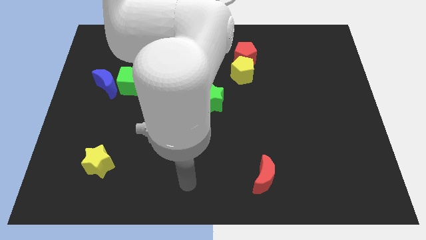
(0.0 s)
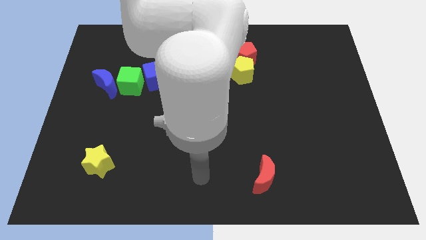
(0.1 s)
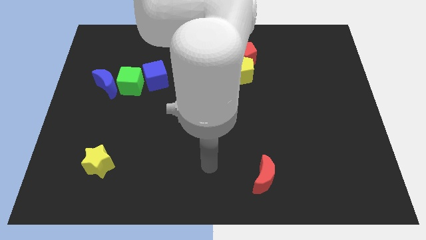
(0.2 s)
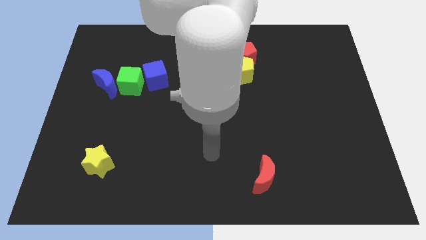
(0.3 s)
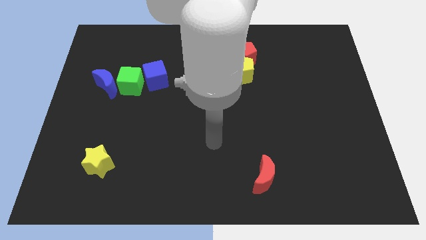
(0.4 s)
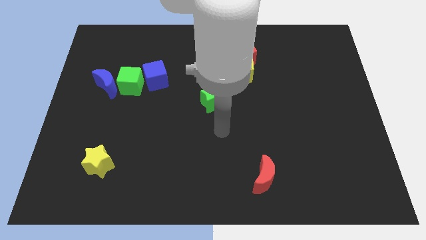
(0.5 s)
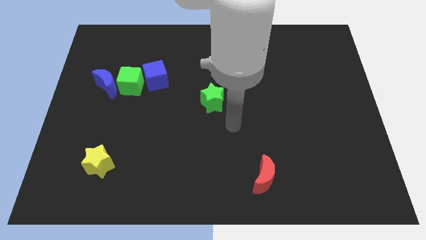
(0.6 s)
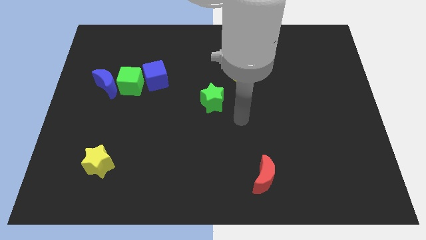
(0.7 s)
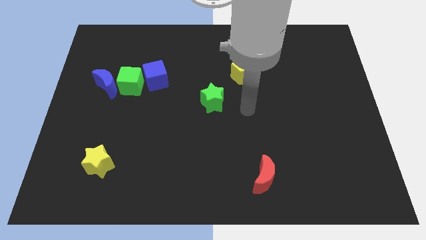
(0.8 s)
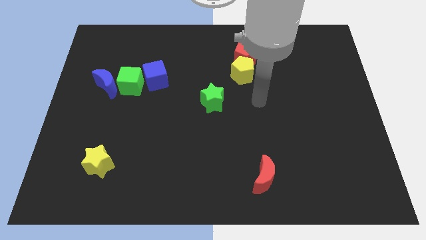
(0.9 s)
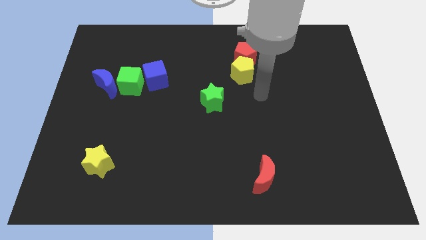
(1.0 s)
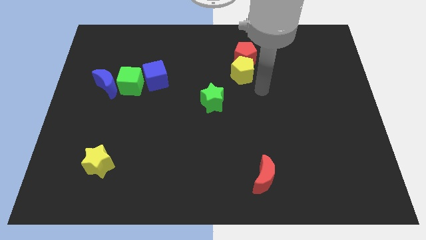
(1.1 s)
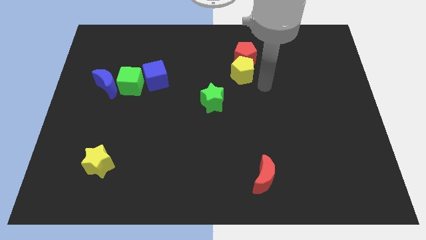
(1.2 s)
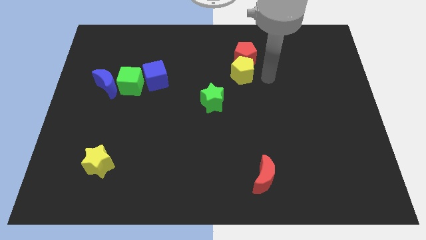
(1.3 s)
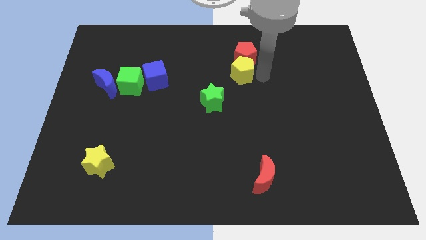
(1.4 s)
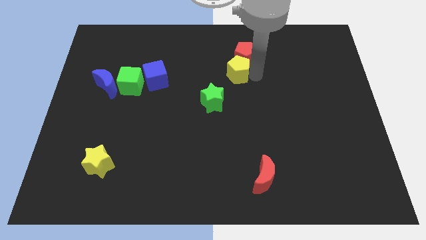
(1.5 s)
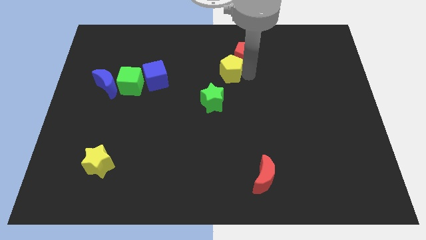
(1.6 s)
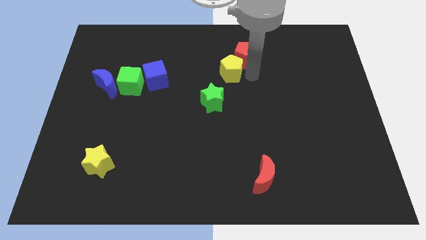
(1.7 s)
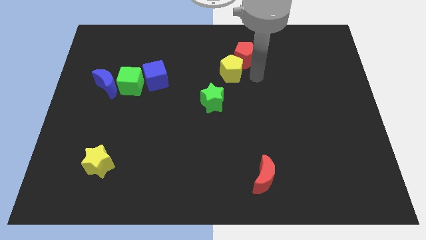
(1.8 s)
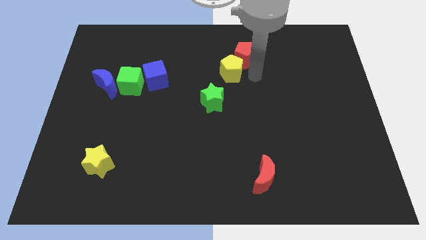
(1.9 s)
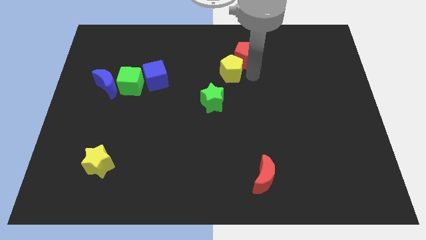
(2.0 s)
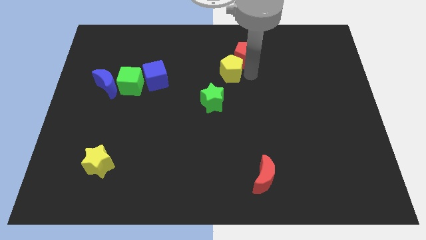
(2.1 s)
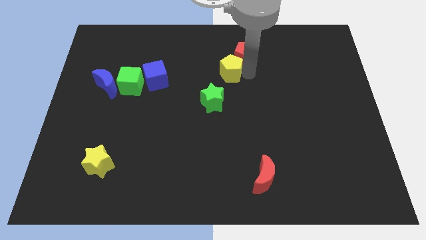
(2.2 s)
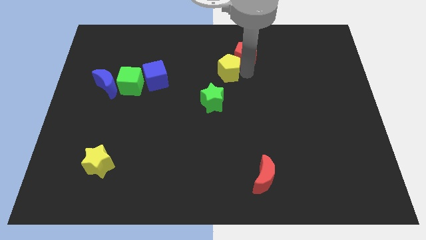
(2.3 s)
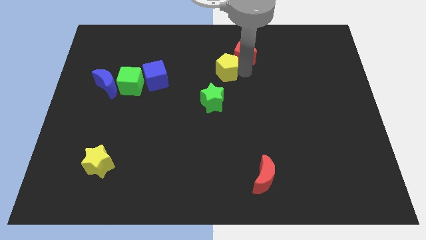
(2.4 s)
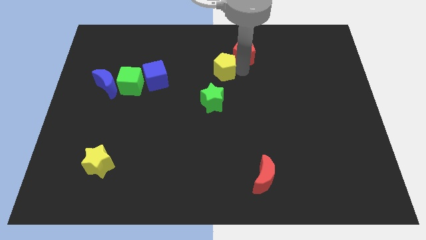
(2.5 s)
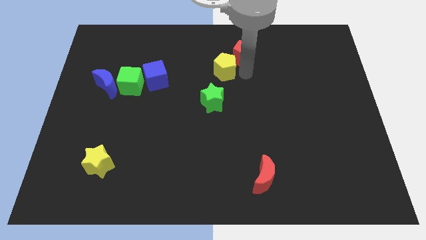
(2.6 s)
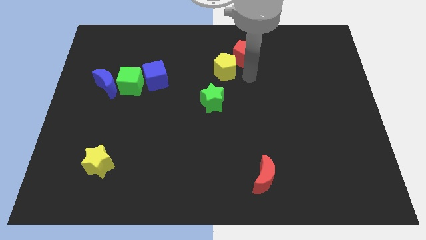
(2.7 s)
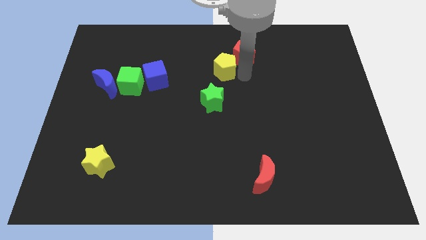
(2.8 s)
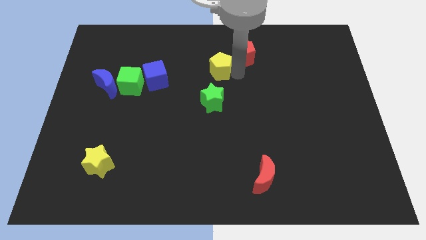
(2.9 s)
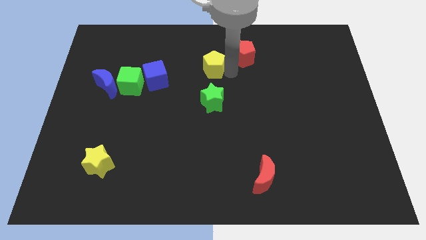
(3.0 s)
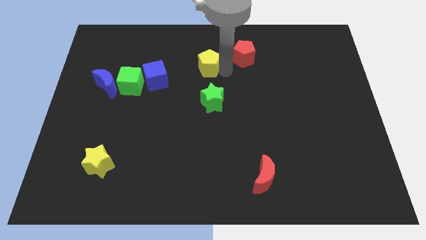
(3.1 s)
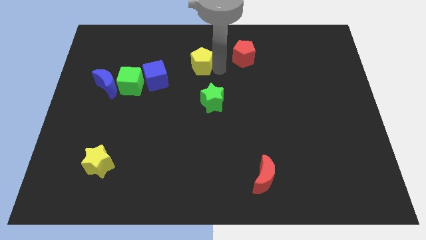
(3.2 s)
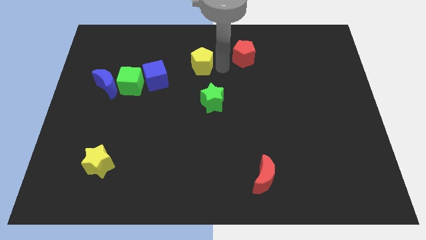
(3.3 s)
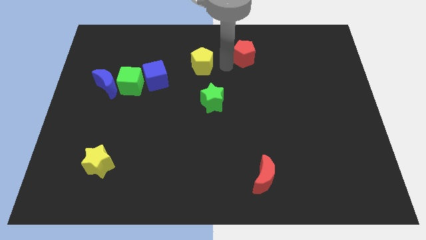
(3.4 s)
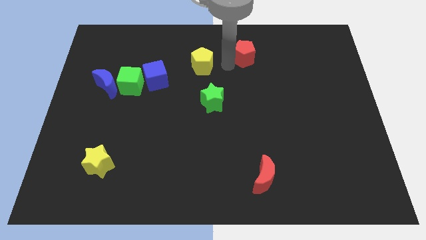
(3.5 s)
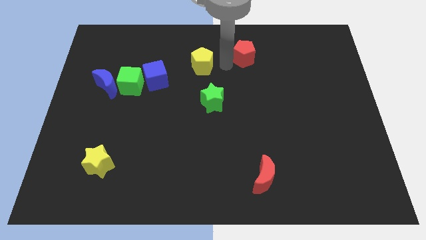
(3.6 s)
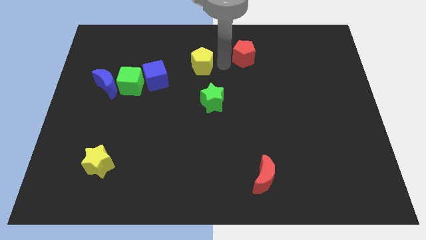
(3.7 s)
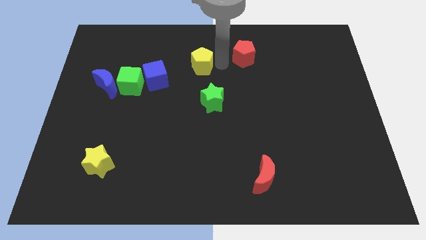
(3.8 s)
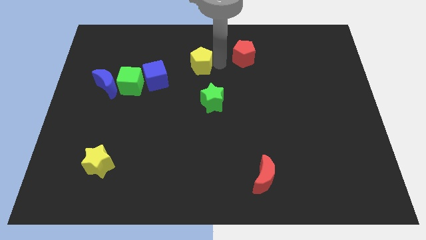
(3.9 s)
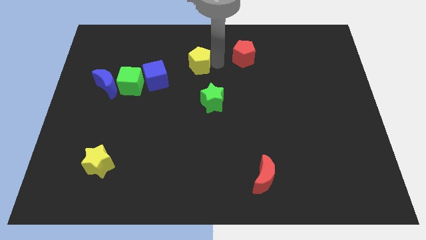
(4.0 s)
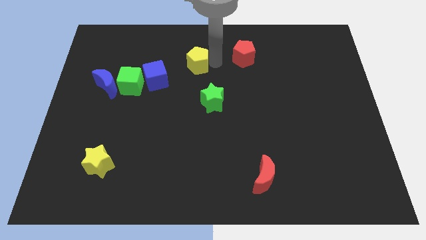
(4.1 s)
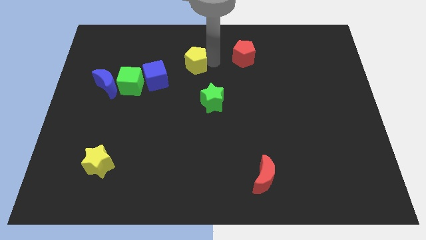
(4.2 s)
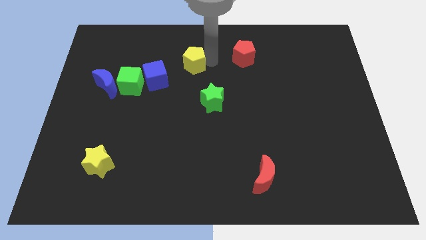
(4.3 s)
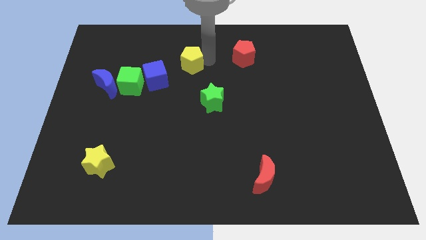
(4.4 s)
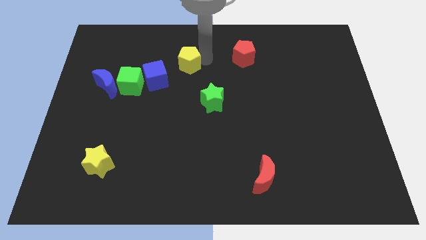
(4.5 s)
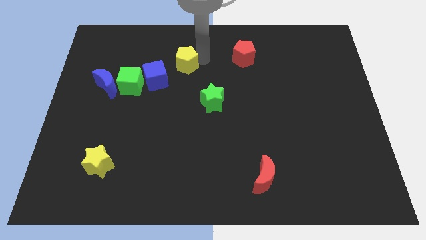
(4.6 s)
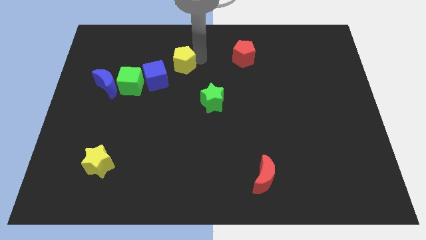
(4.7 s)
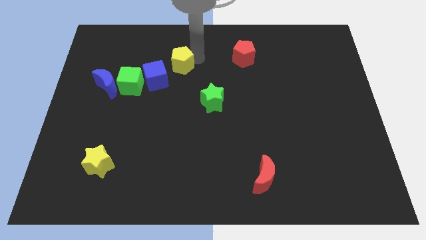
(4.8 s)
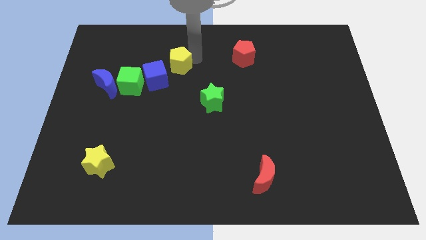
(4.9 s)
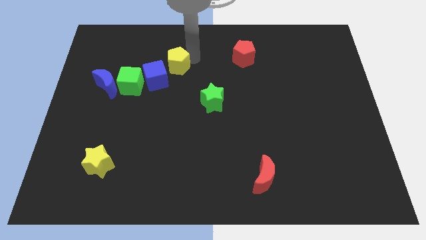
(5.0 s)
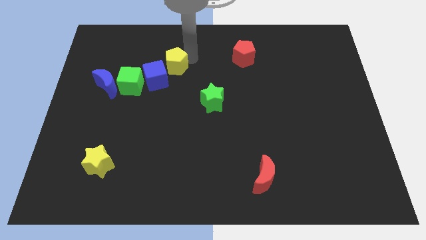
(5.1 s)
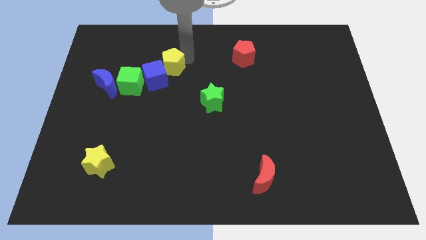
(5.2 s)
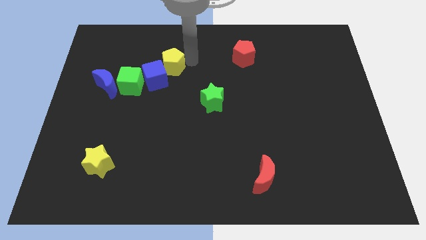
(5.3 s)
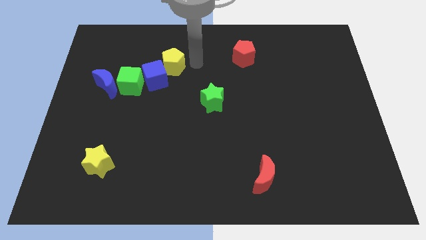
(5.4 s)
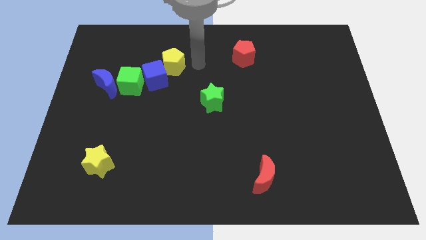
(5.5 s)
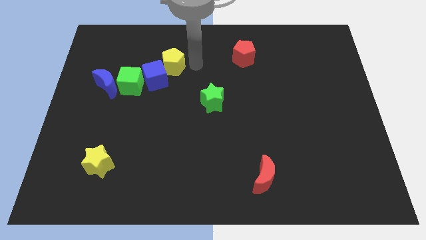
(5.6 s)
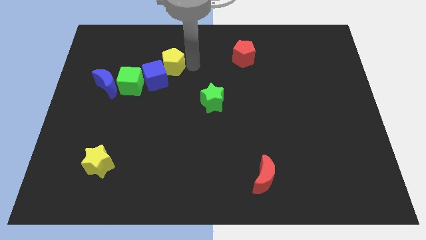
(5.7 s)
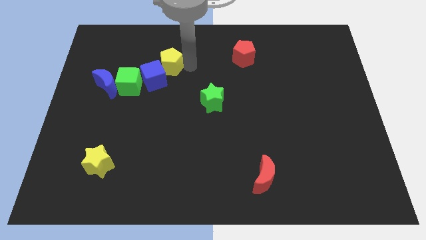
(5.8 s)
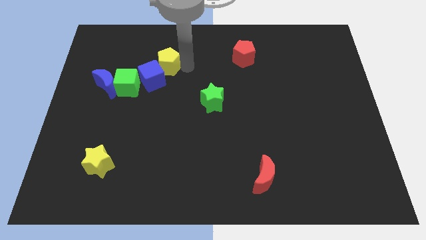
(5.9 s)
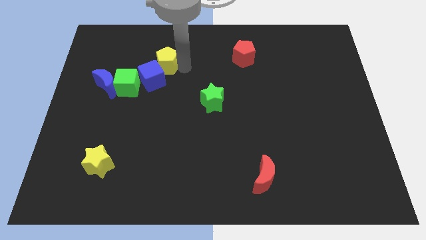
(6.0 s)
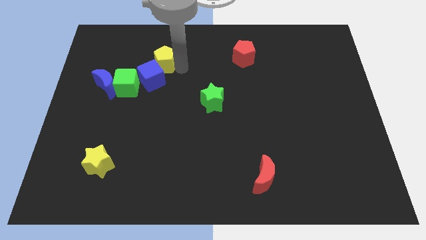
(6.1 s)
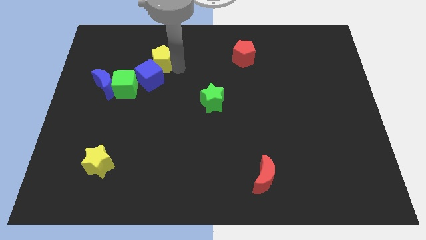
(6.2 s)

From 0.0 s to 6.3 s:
move the yellow pentagon left

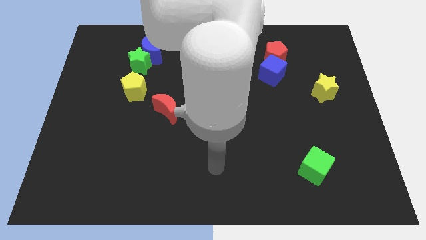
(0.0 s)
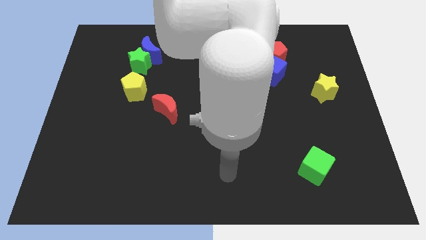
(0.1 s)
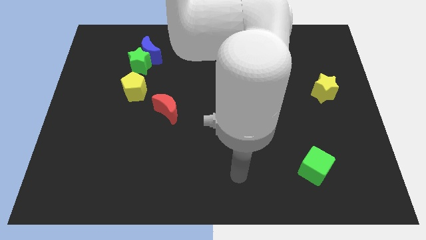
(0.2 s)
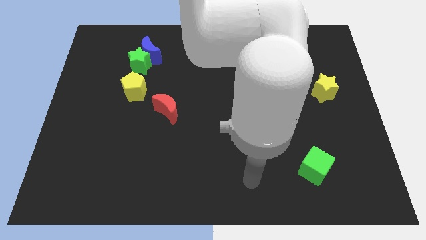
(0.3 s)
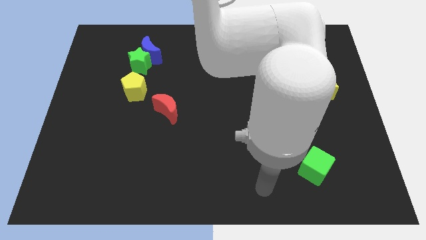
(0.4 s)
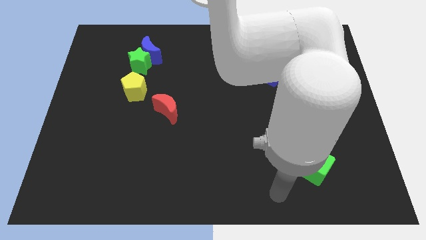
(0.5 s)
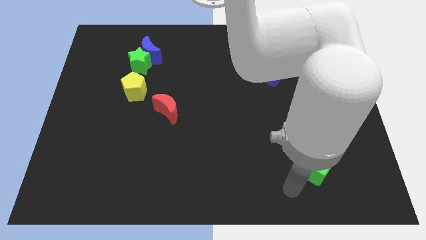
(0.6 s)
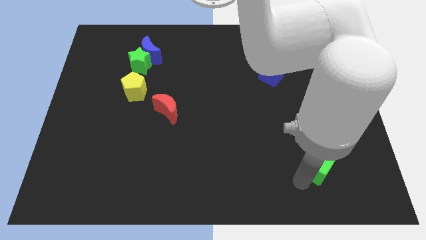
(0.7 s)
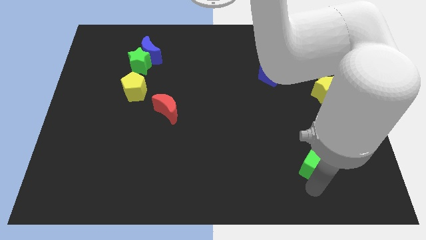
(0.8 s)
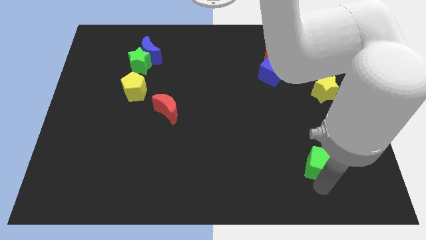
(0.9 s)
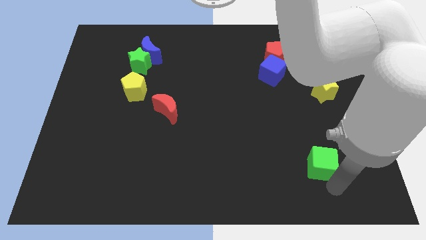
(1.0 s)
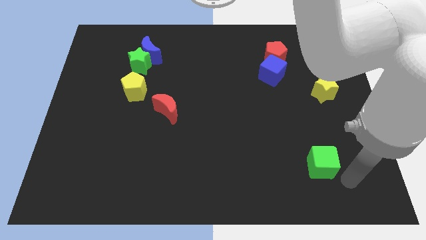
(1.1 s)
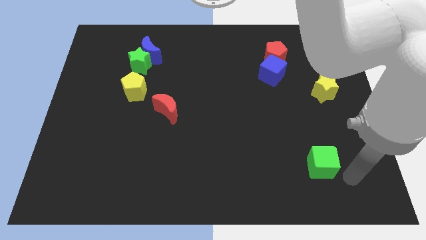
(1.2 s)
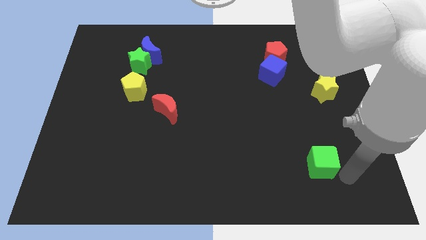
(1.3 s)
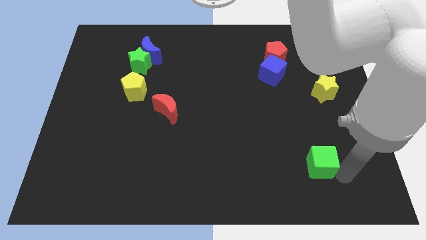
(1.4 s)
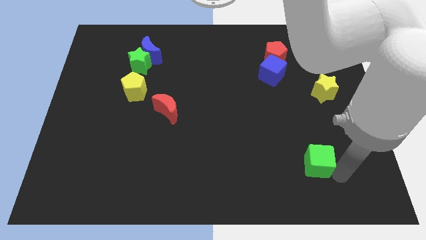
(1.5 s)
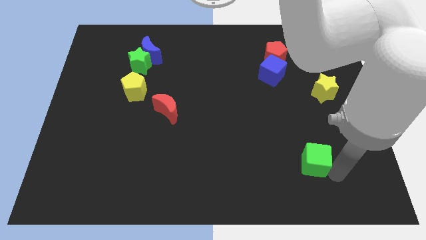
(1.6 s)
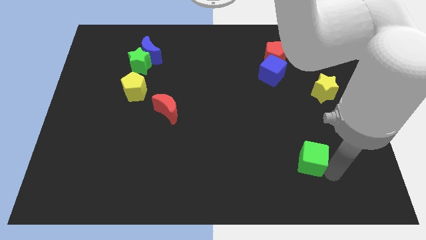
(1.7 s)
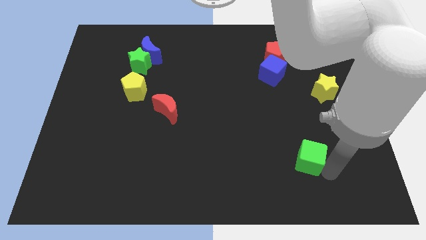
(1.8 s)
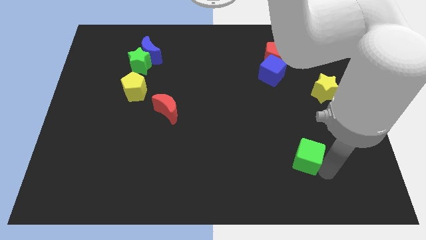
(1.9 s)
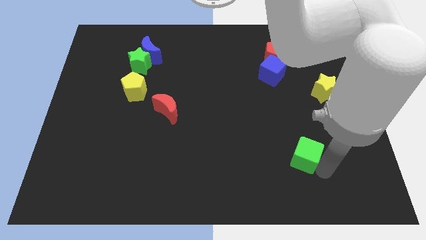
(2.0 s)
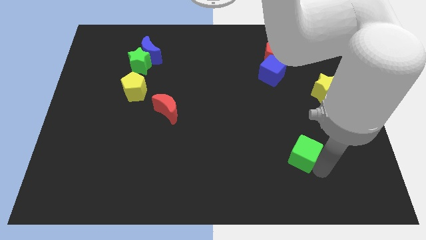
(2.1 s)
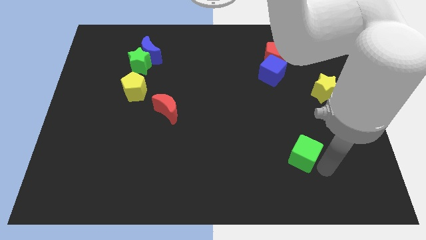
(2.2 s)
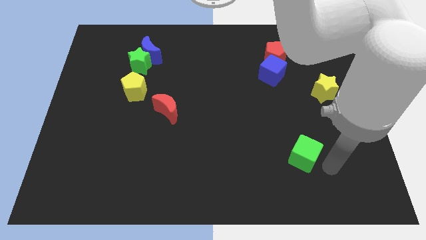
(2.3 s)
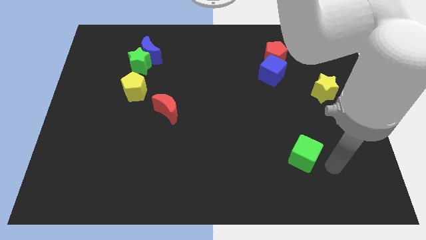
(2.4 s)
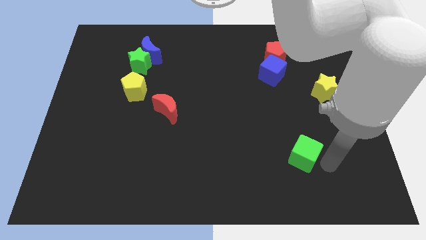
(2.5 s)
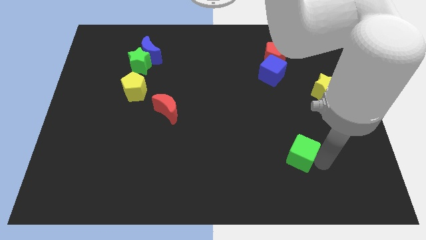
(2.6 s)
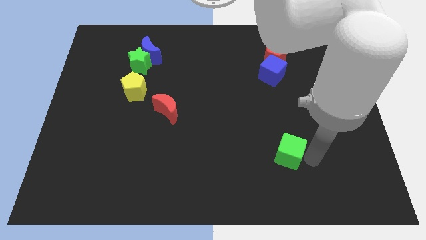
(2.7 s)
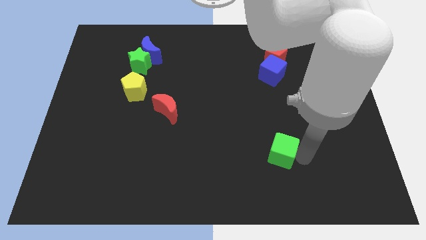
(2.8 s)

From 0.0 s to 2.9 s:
move the green cube a little diagonally upwards and left
